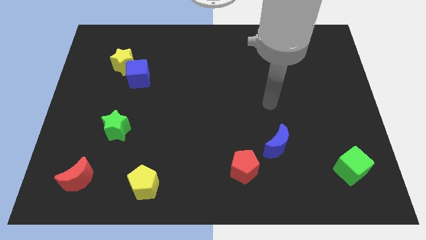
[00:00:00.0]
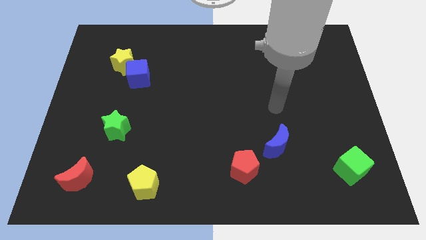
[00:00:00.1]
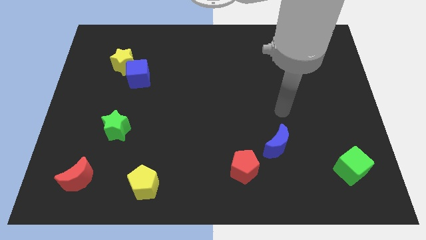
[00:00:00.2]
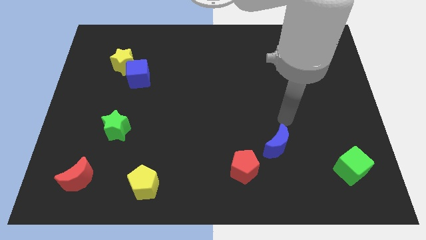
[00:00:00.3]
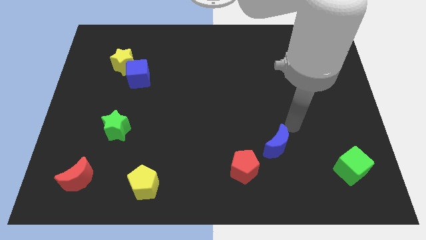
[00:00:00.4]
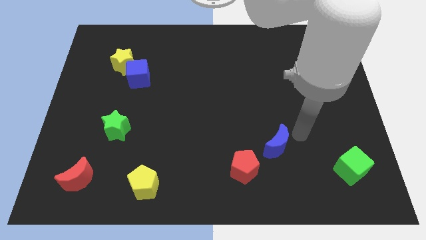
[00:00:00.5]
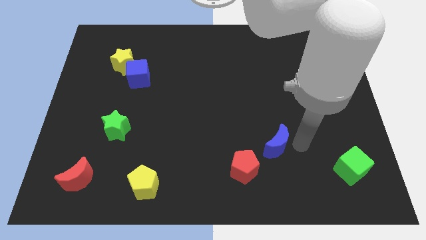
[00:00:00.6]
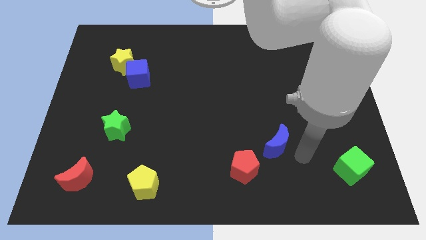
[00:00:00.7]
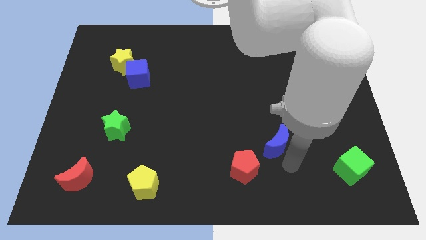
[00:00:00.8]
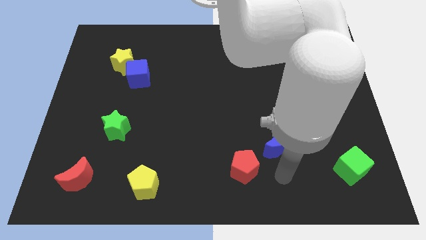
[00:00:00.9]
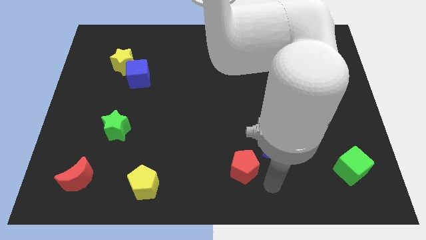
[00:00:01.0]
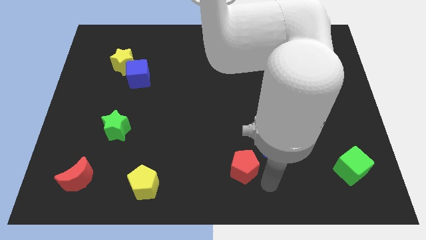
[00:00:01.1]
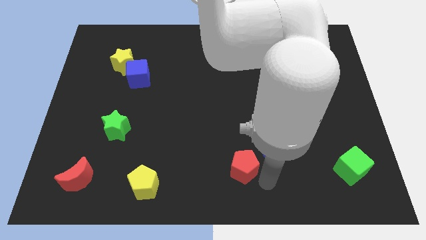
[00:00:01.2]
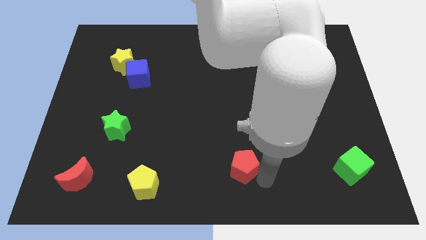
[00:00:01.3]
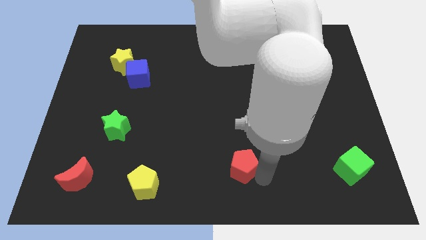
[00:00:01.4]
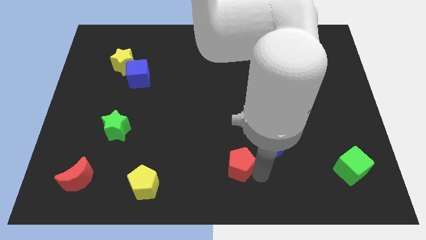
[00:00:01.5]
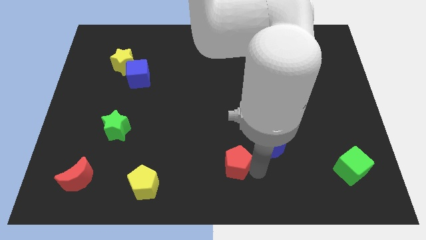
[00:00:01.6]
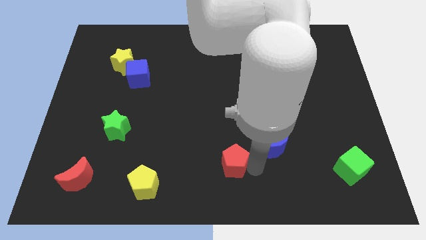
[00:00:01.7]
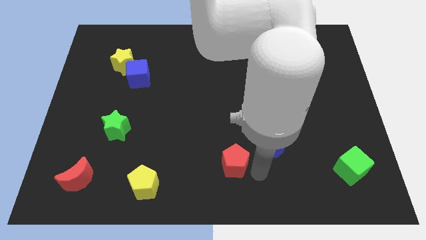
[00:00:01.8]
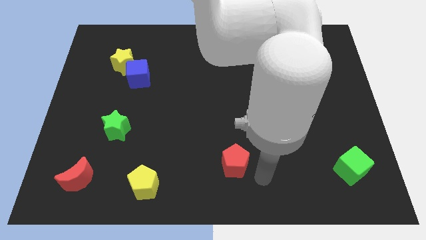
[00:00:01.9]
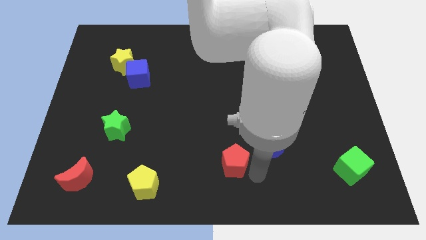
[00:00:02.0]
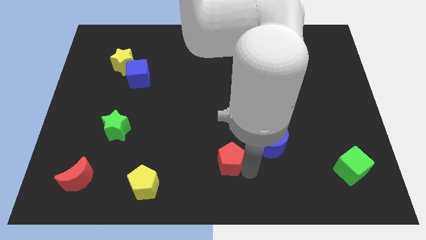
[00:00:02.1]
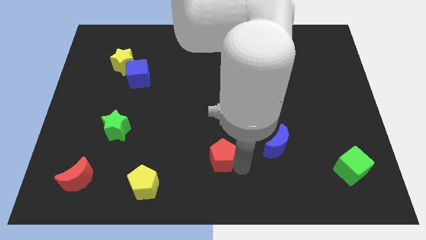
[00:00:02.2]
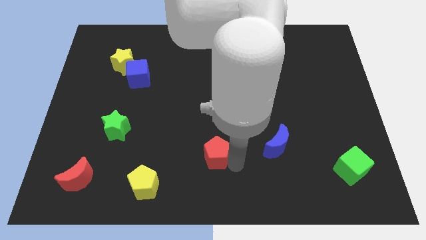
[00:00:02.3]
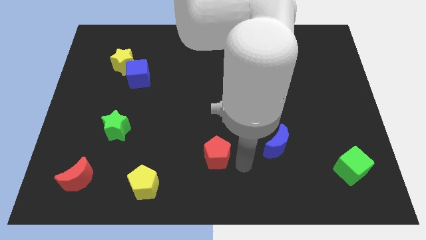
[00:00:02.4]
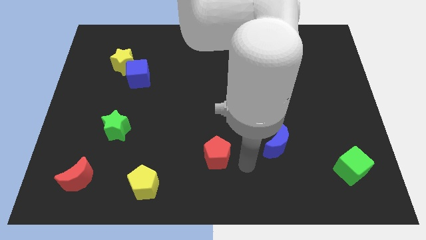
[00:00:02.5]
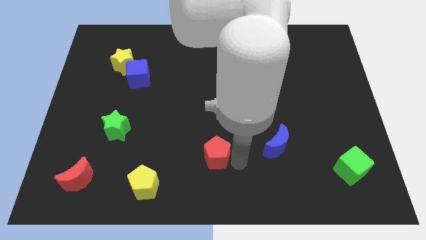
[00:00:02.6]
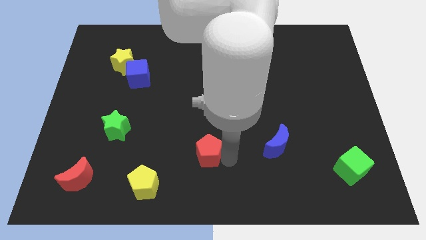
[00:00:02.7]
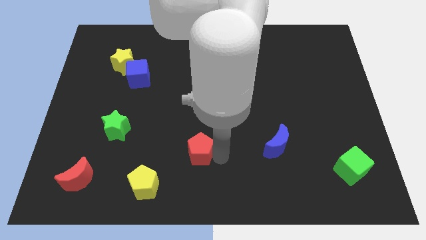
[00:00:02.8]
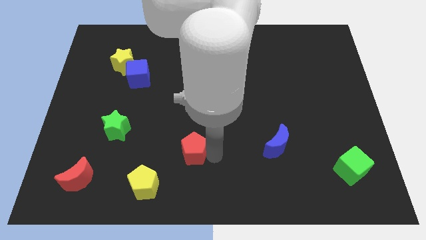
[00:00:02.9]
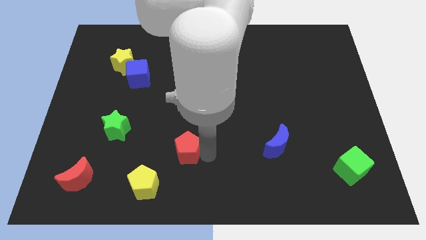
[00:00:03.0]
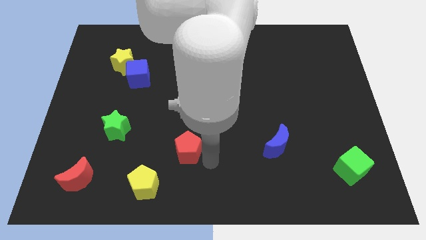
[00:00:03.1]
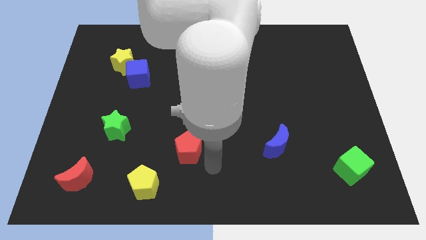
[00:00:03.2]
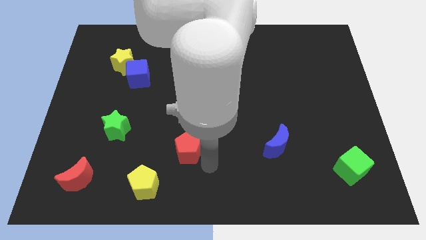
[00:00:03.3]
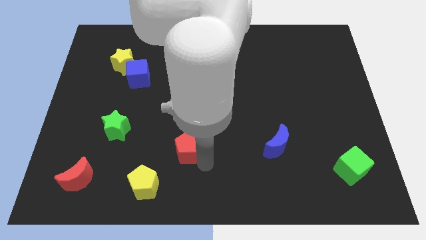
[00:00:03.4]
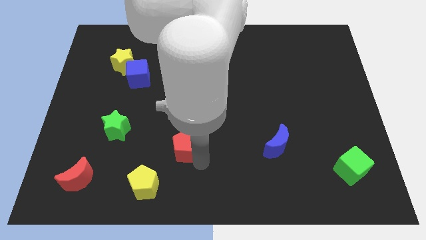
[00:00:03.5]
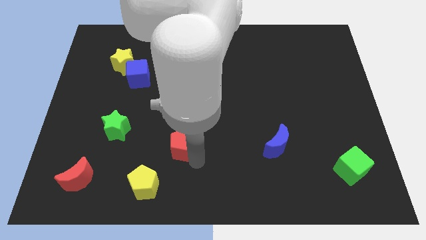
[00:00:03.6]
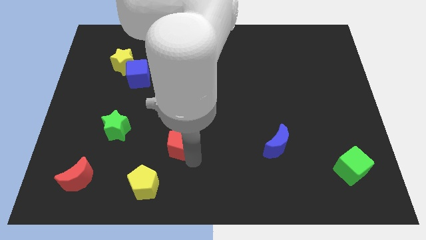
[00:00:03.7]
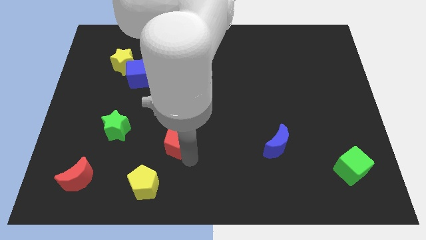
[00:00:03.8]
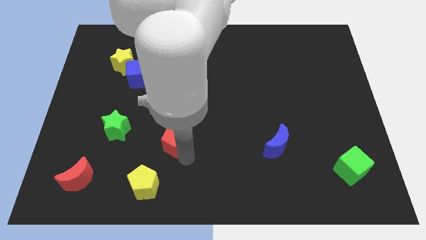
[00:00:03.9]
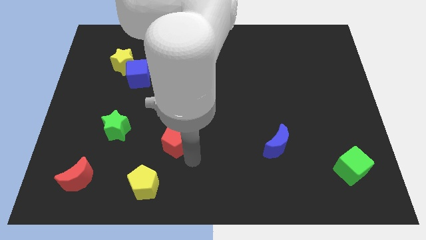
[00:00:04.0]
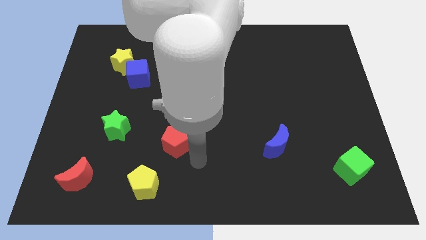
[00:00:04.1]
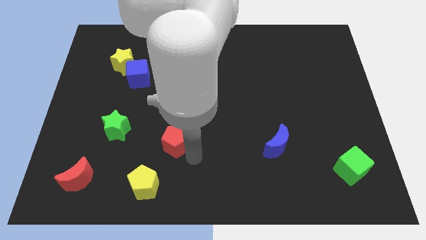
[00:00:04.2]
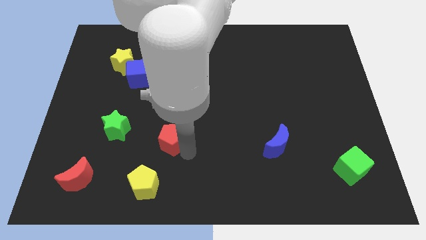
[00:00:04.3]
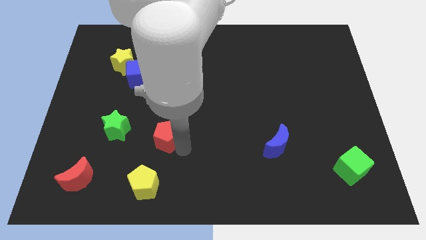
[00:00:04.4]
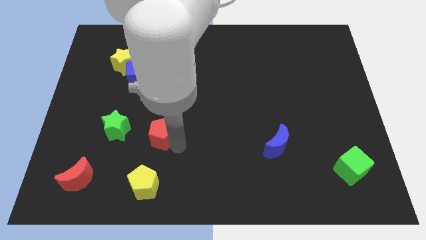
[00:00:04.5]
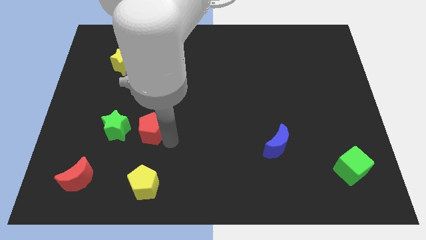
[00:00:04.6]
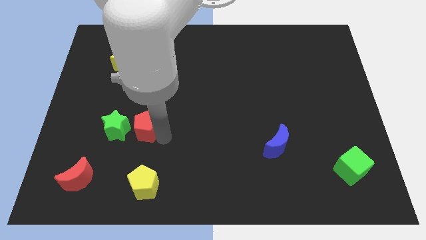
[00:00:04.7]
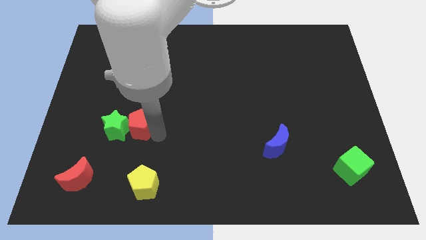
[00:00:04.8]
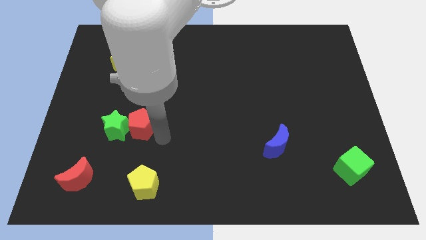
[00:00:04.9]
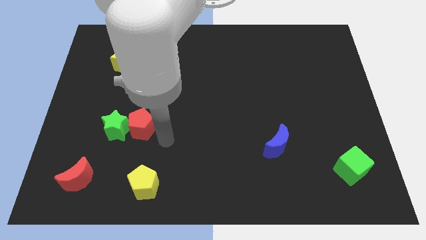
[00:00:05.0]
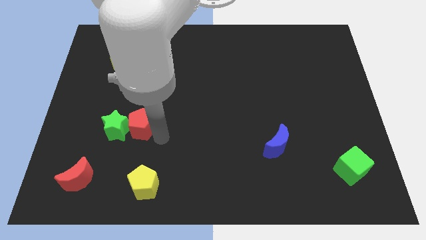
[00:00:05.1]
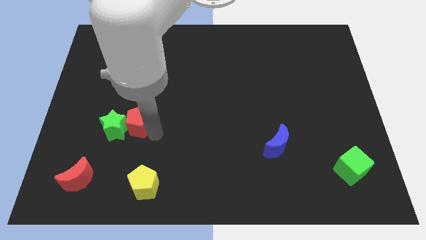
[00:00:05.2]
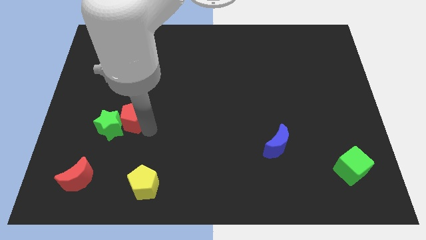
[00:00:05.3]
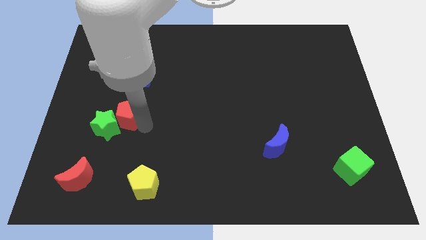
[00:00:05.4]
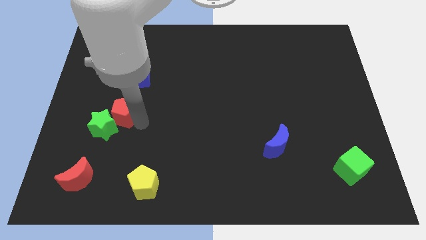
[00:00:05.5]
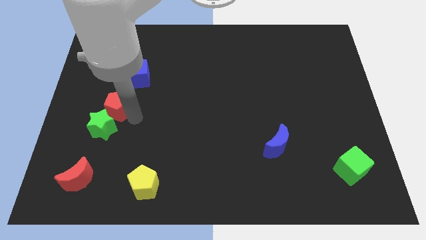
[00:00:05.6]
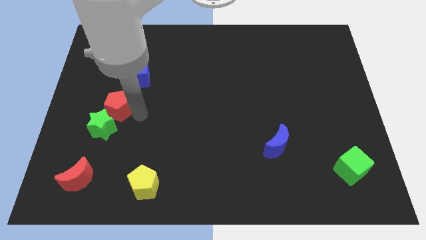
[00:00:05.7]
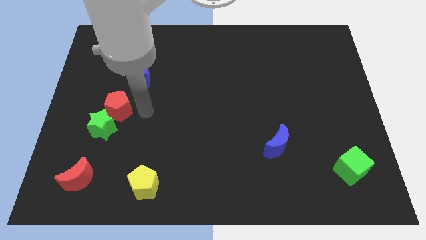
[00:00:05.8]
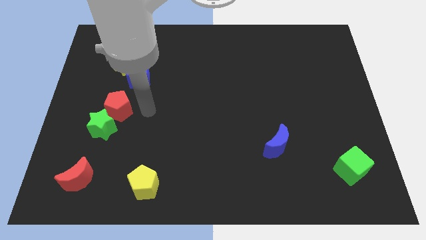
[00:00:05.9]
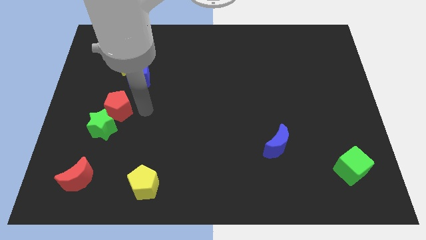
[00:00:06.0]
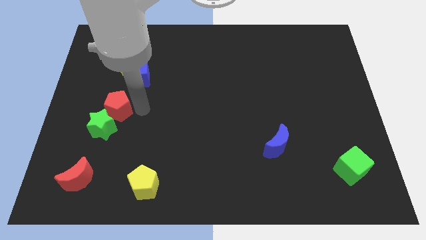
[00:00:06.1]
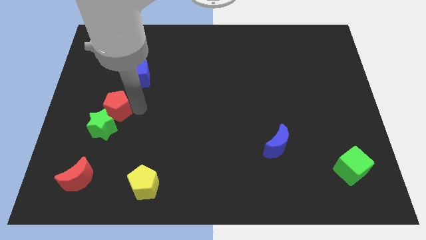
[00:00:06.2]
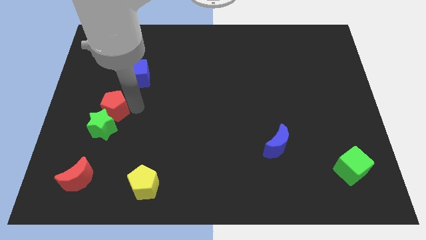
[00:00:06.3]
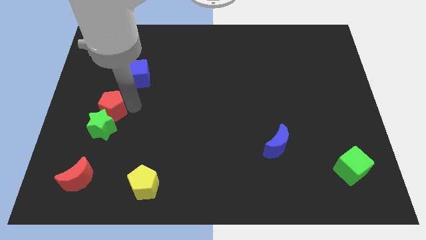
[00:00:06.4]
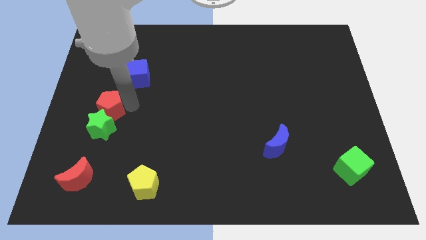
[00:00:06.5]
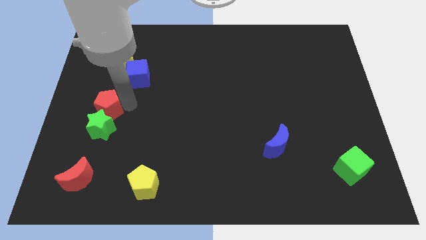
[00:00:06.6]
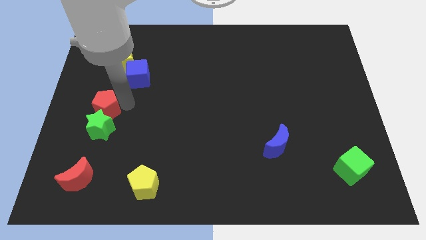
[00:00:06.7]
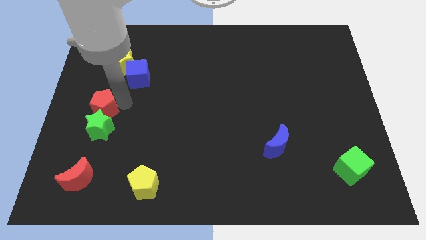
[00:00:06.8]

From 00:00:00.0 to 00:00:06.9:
move the red pentagon to the left side
